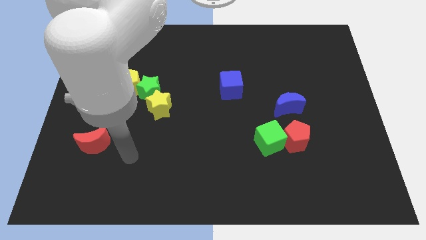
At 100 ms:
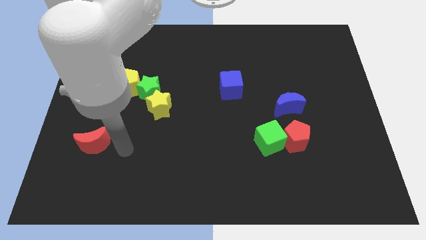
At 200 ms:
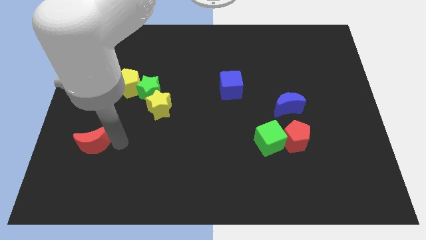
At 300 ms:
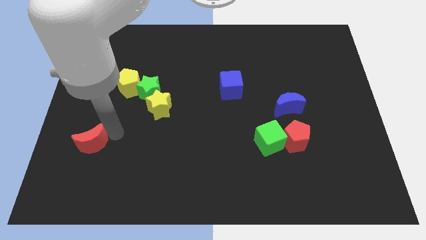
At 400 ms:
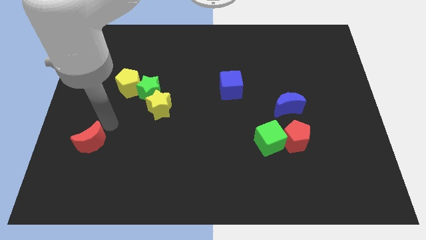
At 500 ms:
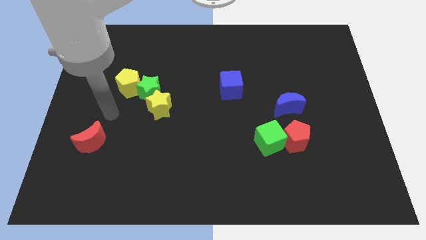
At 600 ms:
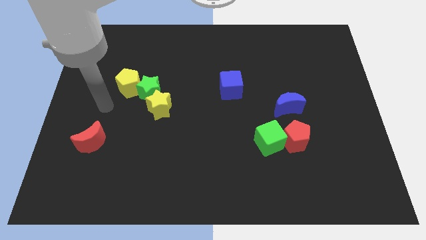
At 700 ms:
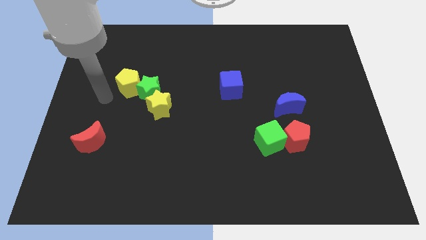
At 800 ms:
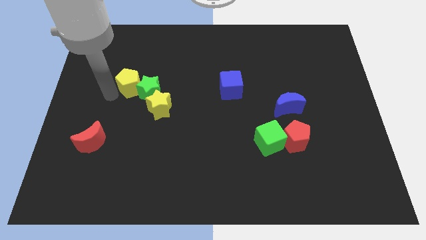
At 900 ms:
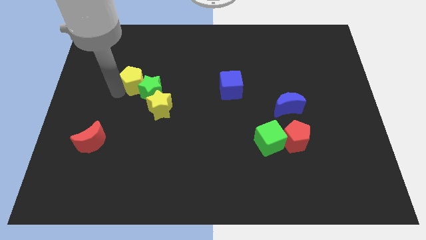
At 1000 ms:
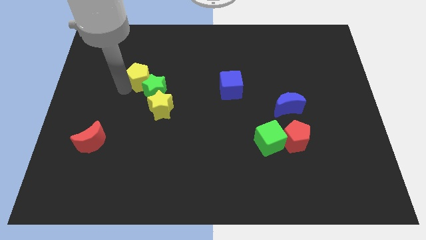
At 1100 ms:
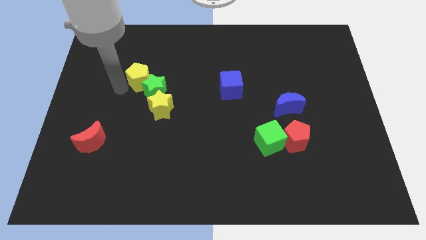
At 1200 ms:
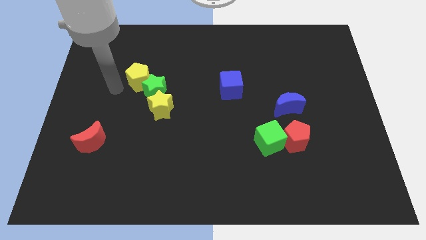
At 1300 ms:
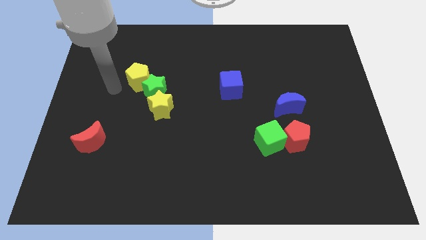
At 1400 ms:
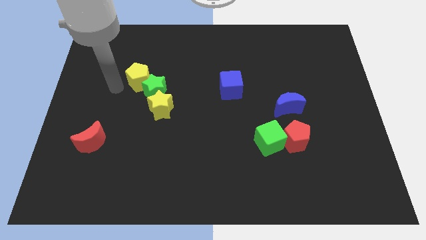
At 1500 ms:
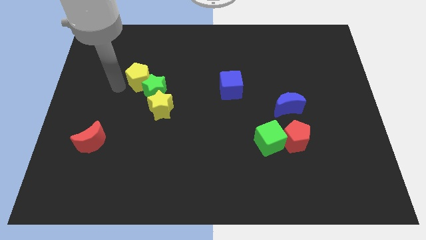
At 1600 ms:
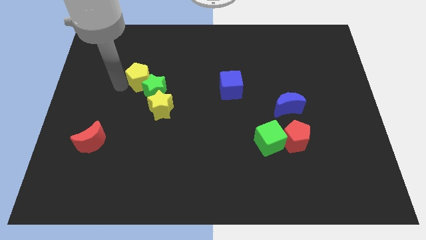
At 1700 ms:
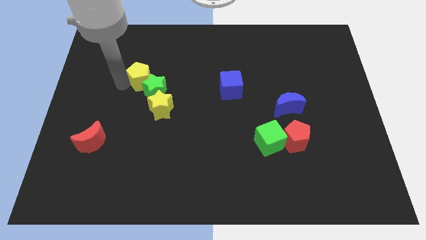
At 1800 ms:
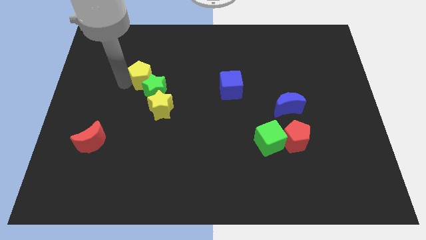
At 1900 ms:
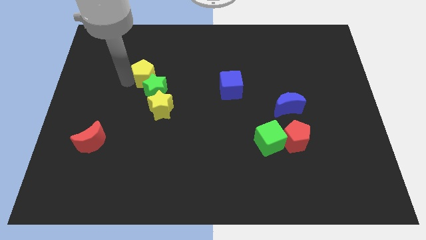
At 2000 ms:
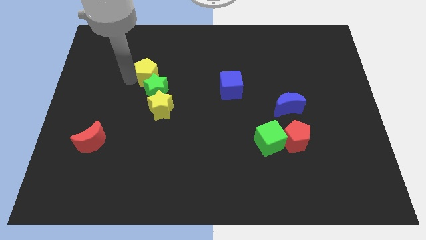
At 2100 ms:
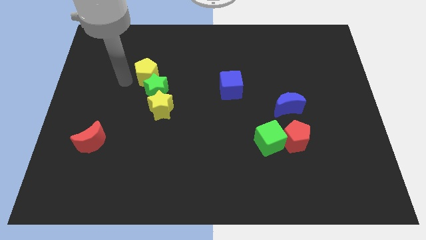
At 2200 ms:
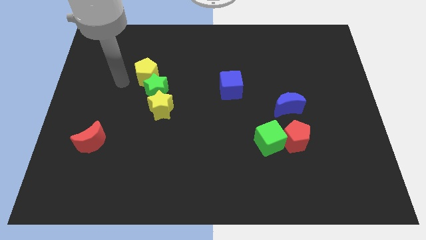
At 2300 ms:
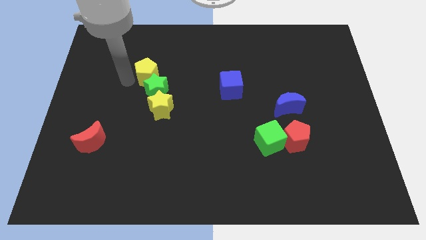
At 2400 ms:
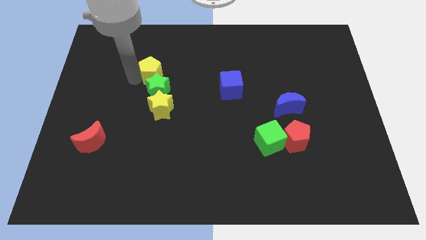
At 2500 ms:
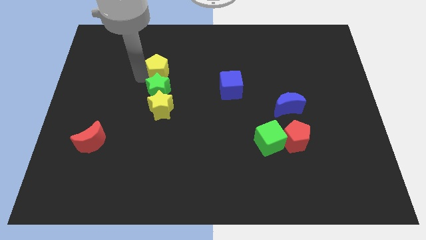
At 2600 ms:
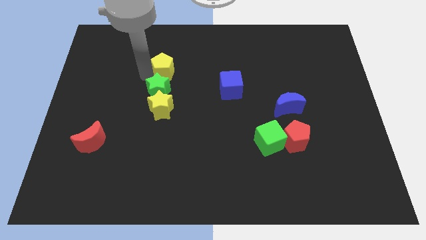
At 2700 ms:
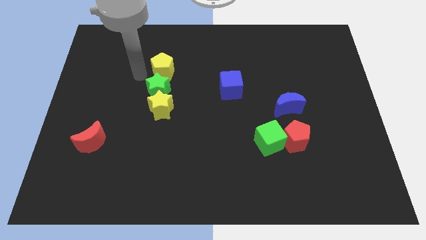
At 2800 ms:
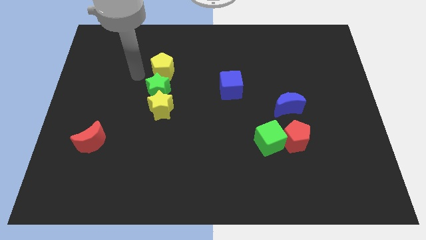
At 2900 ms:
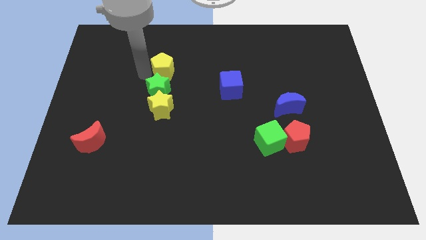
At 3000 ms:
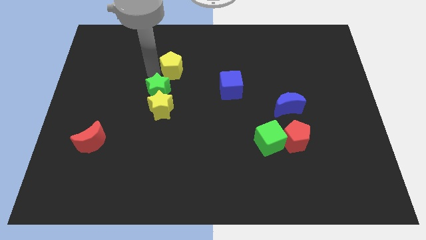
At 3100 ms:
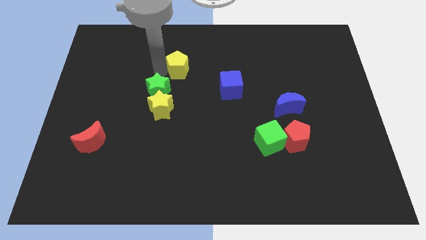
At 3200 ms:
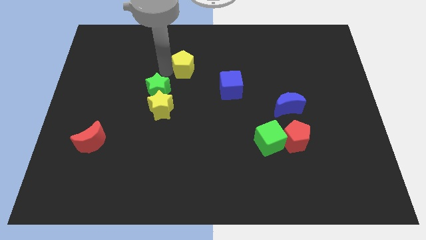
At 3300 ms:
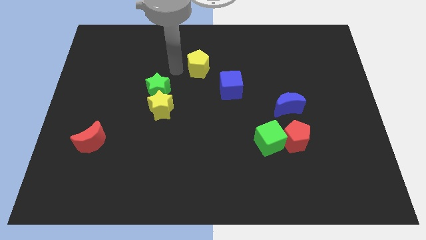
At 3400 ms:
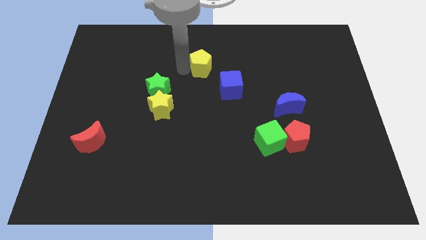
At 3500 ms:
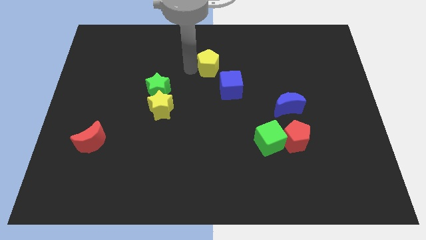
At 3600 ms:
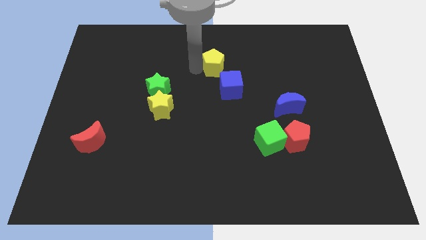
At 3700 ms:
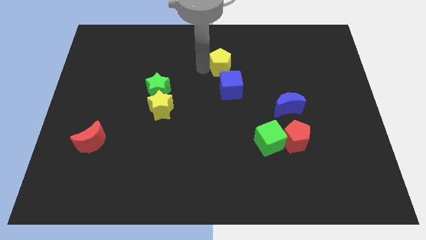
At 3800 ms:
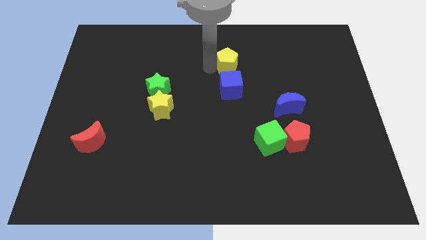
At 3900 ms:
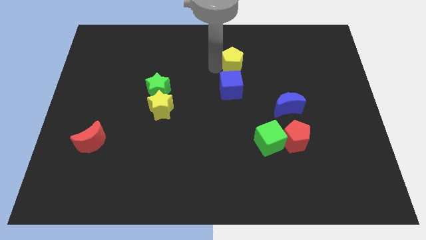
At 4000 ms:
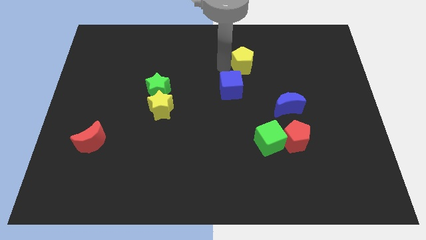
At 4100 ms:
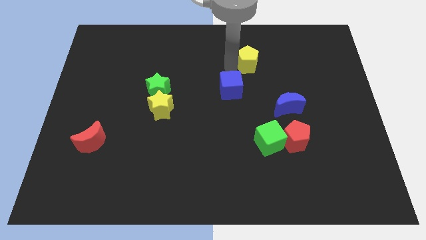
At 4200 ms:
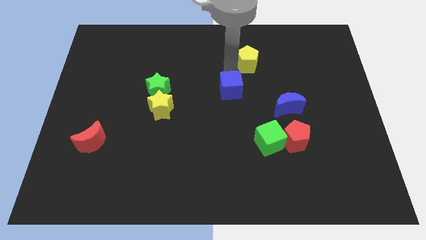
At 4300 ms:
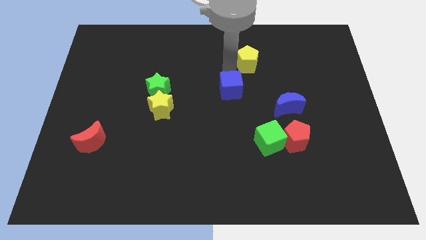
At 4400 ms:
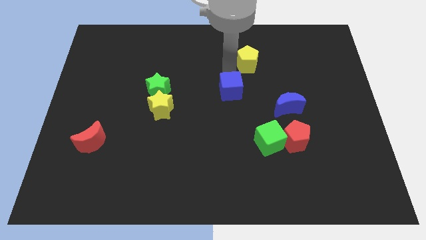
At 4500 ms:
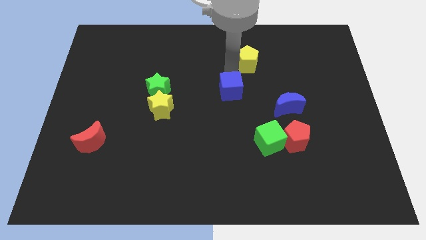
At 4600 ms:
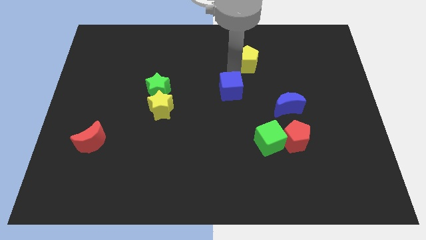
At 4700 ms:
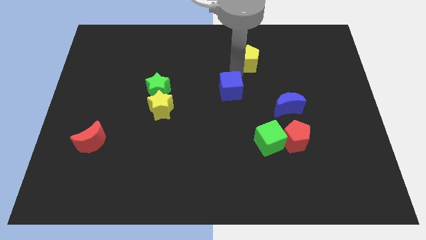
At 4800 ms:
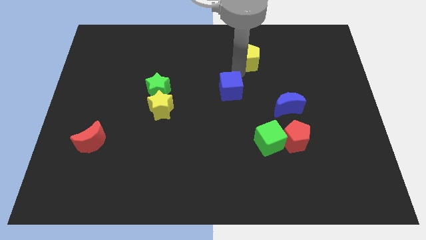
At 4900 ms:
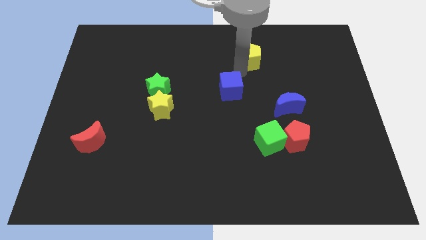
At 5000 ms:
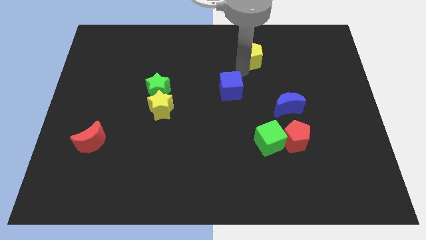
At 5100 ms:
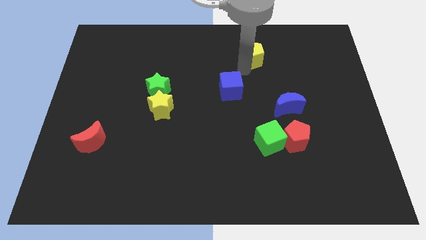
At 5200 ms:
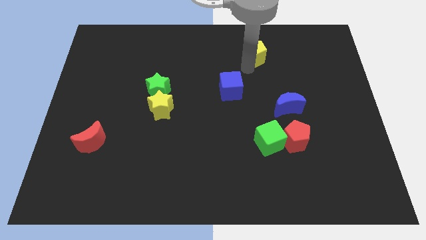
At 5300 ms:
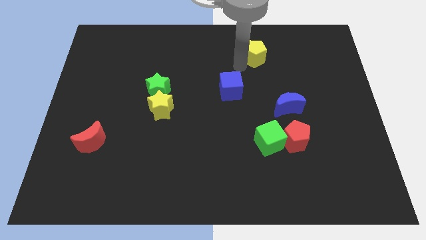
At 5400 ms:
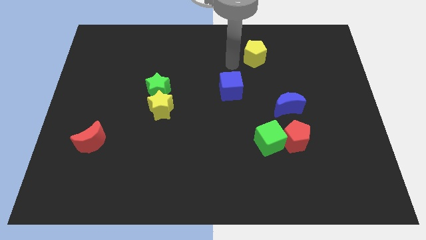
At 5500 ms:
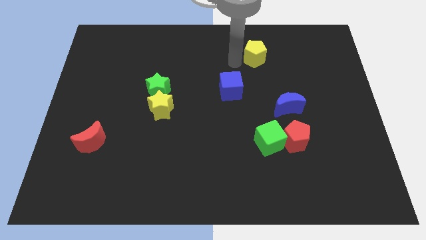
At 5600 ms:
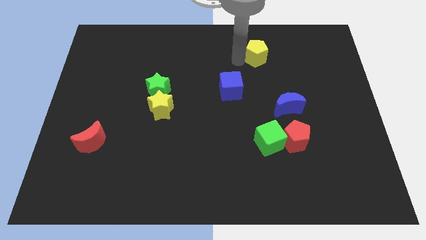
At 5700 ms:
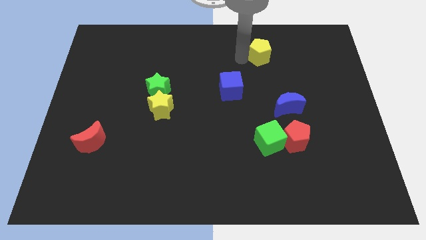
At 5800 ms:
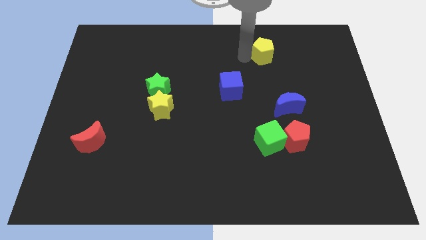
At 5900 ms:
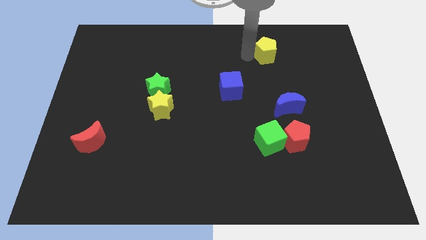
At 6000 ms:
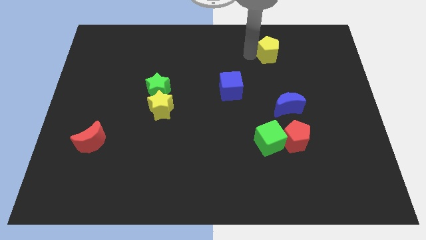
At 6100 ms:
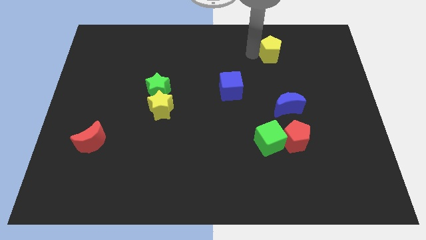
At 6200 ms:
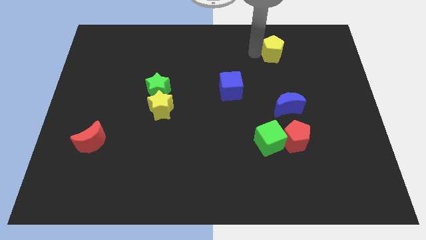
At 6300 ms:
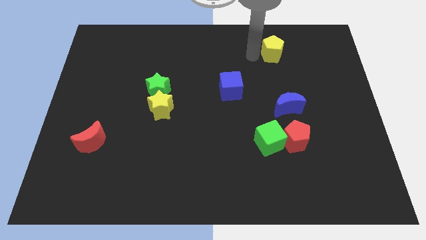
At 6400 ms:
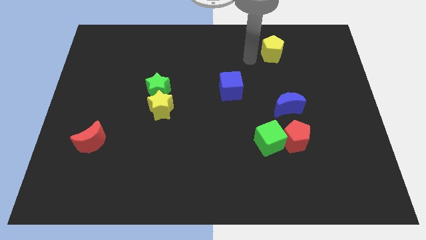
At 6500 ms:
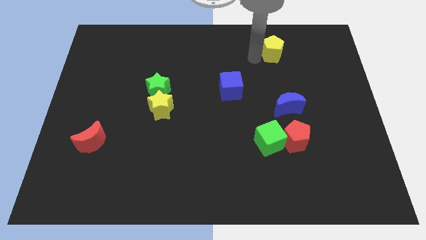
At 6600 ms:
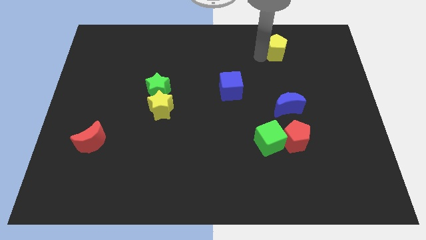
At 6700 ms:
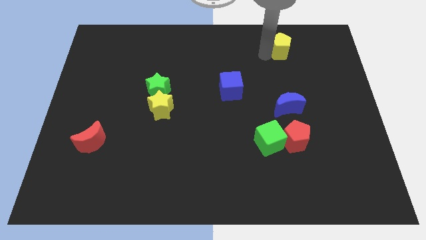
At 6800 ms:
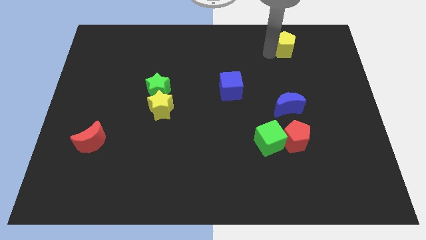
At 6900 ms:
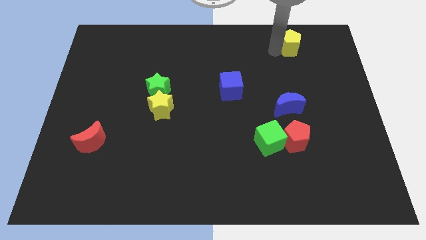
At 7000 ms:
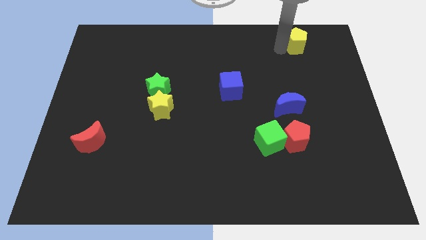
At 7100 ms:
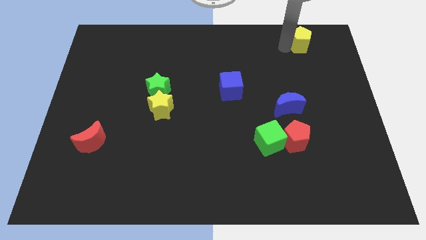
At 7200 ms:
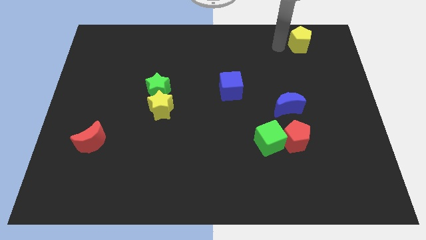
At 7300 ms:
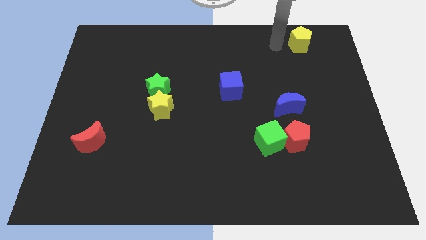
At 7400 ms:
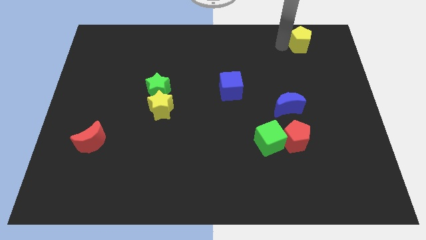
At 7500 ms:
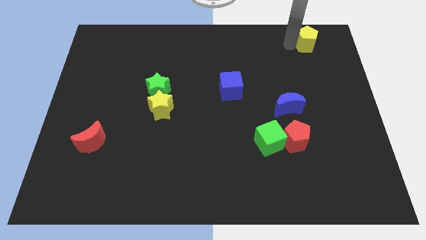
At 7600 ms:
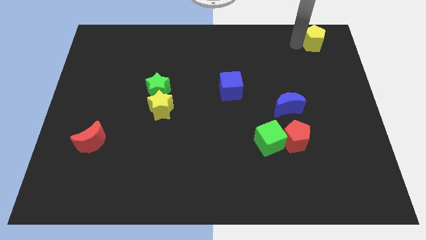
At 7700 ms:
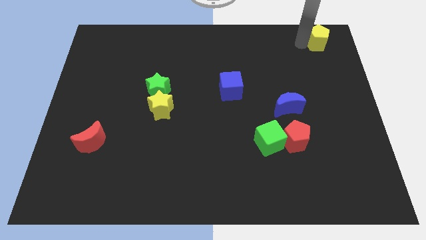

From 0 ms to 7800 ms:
move the yellow pentagon to the top right of the board
